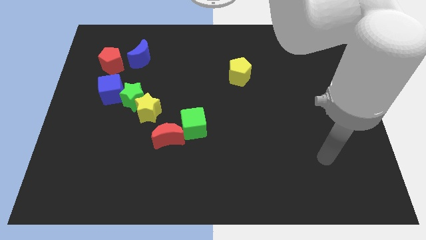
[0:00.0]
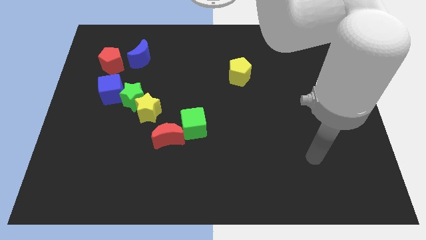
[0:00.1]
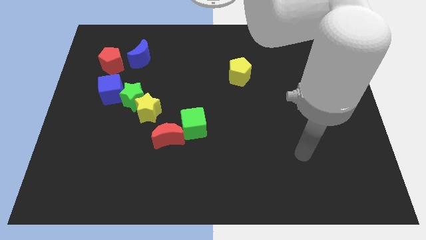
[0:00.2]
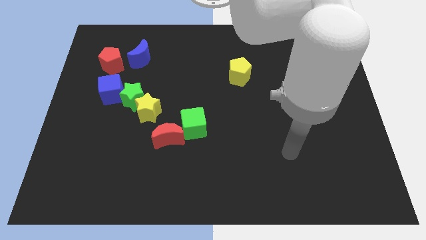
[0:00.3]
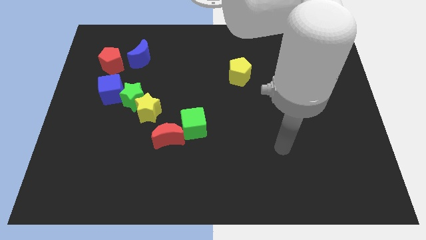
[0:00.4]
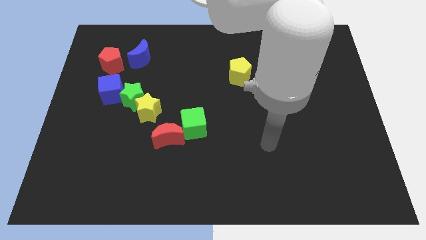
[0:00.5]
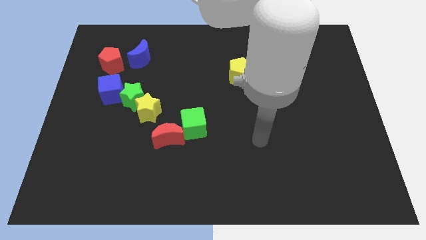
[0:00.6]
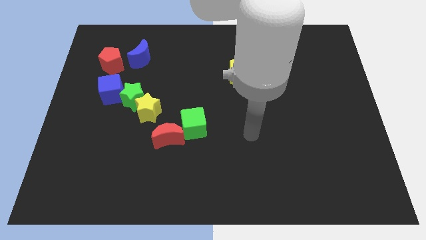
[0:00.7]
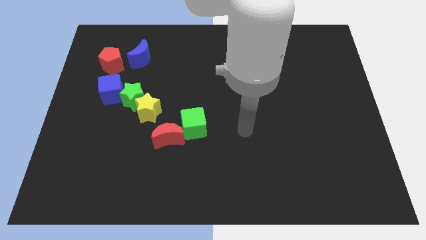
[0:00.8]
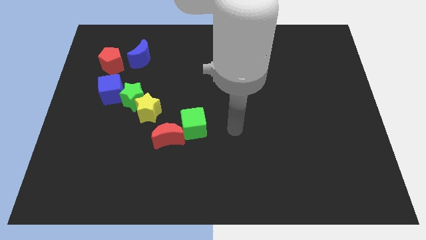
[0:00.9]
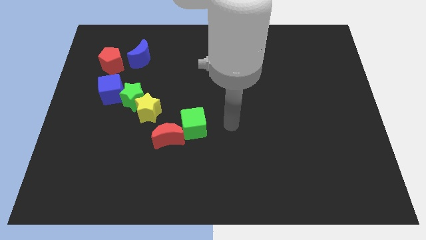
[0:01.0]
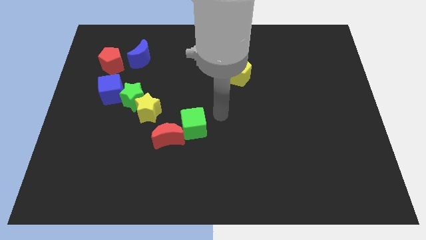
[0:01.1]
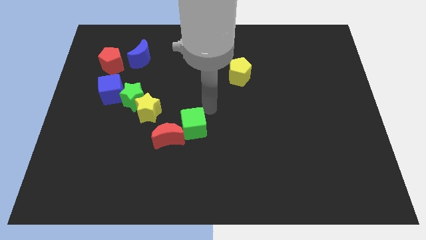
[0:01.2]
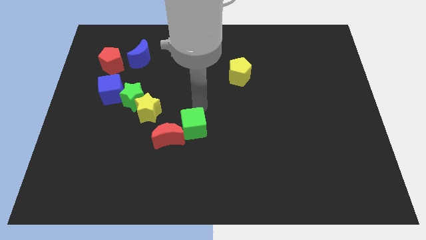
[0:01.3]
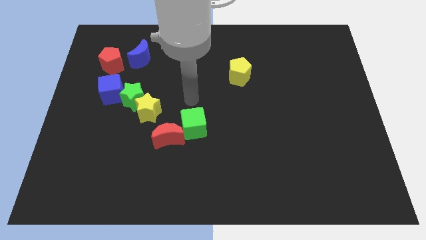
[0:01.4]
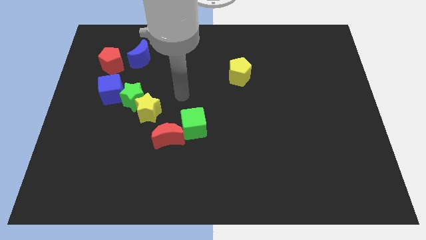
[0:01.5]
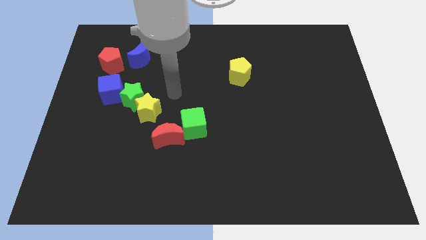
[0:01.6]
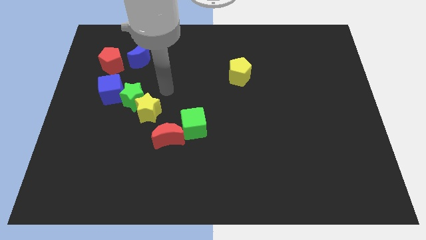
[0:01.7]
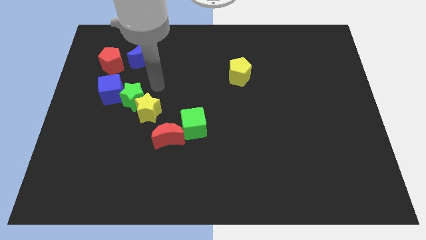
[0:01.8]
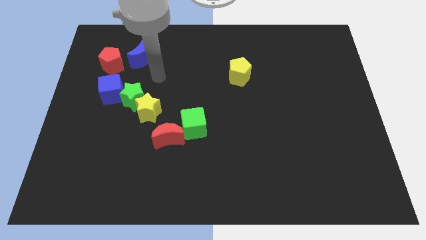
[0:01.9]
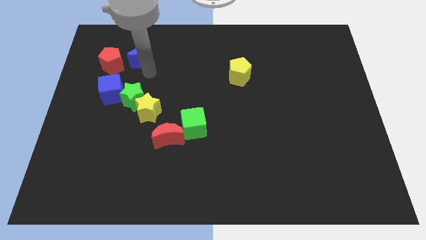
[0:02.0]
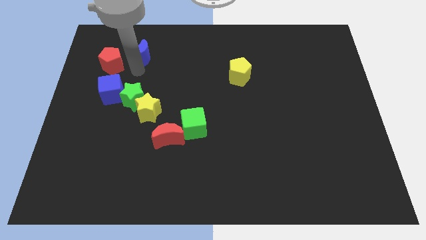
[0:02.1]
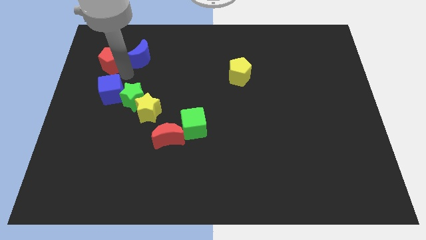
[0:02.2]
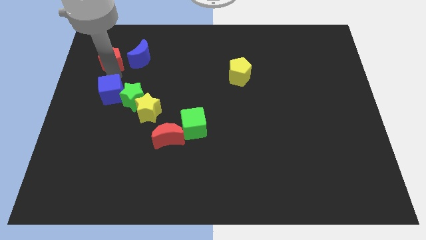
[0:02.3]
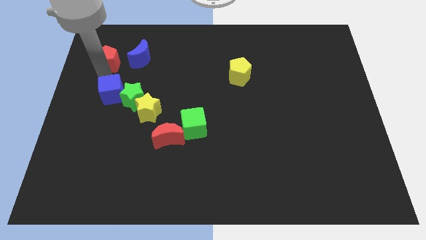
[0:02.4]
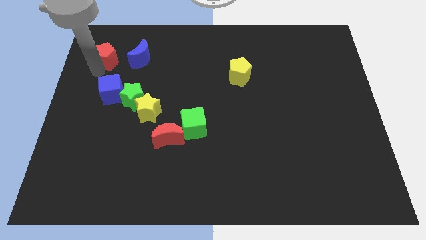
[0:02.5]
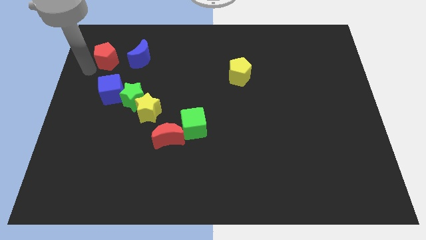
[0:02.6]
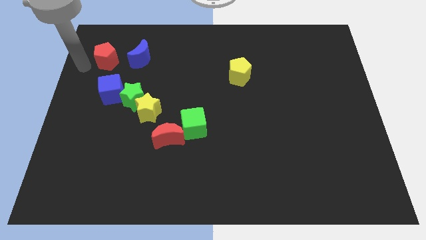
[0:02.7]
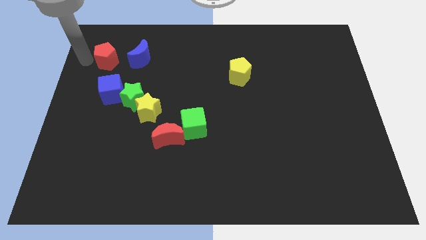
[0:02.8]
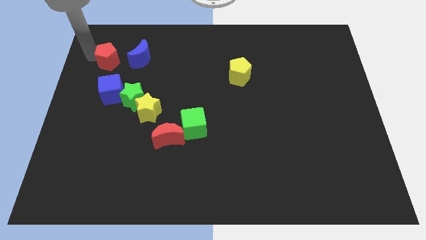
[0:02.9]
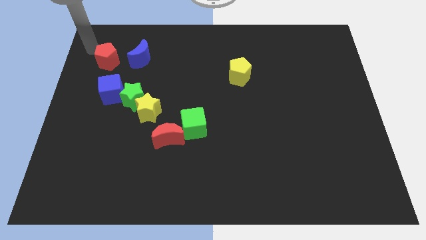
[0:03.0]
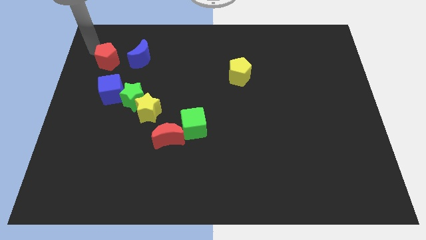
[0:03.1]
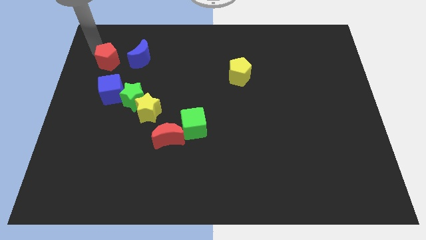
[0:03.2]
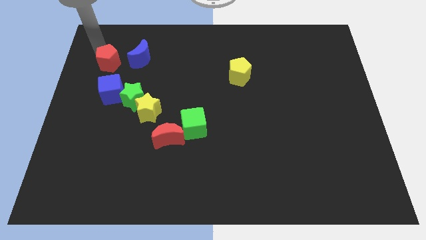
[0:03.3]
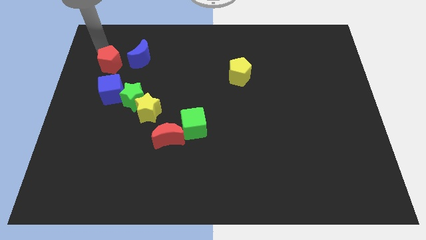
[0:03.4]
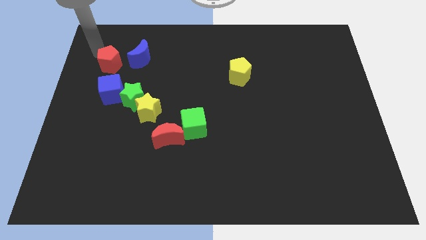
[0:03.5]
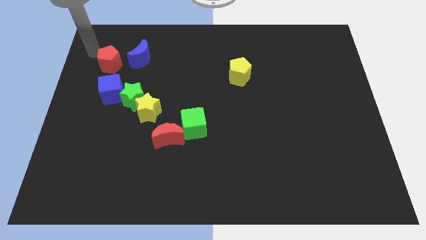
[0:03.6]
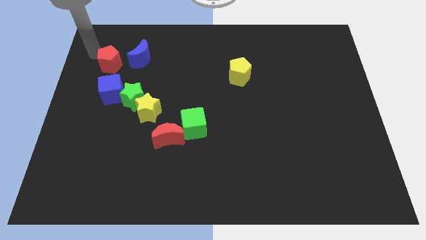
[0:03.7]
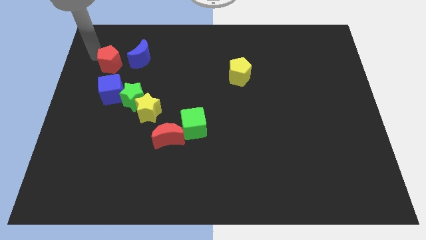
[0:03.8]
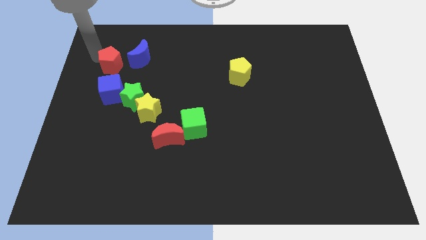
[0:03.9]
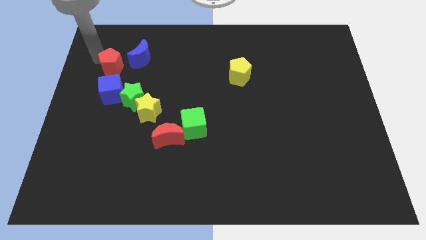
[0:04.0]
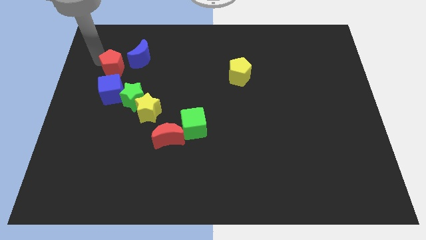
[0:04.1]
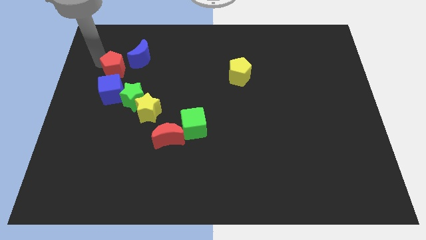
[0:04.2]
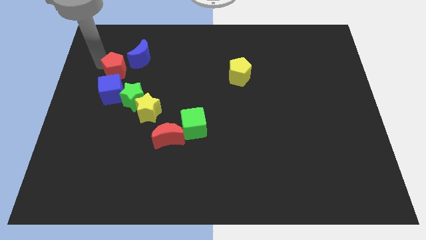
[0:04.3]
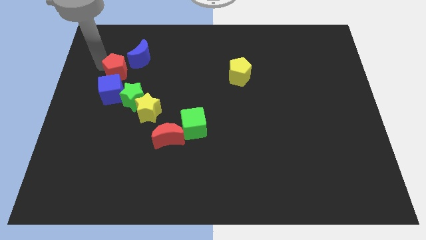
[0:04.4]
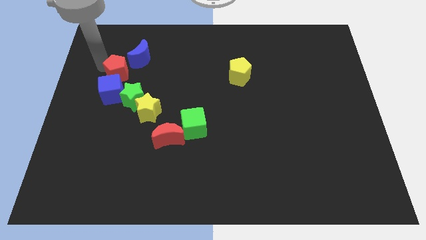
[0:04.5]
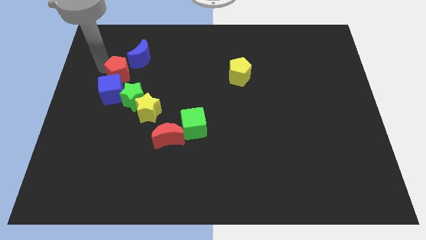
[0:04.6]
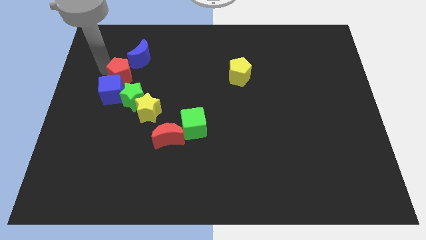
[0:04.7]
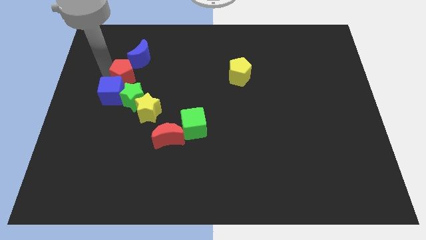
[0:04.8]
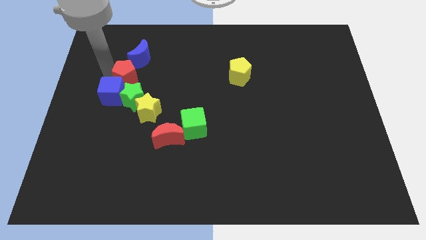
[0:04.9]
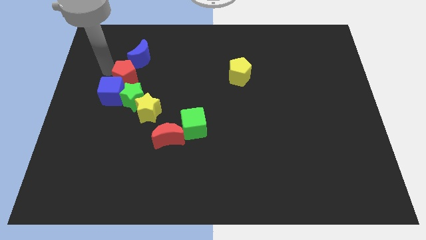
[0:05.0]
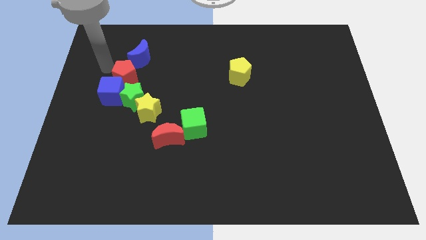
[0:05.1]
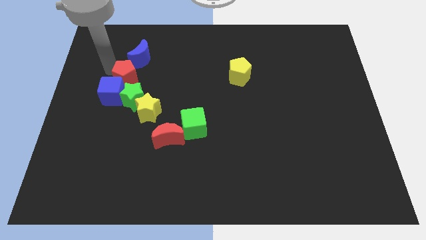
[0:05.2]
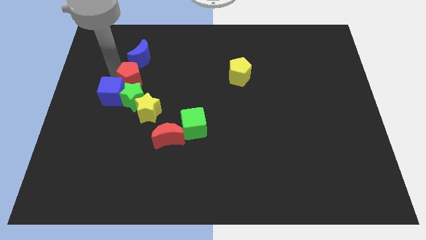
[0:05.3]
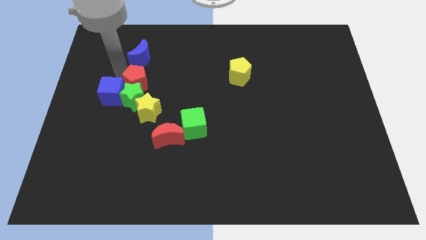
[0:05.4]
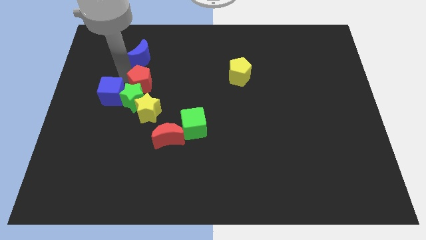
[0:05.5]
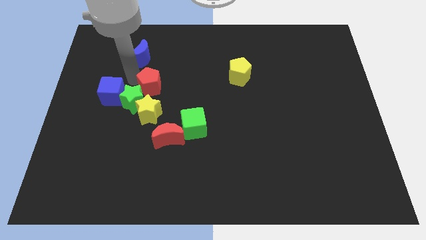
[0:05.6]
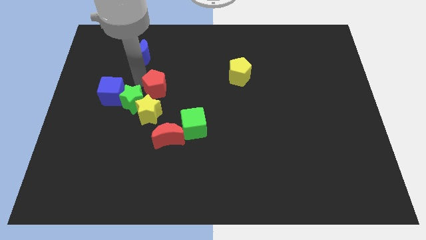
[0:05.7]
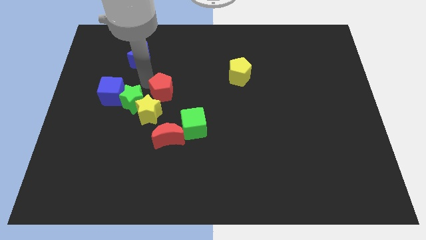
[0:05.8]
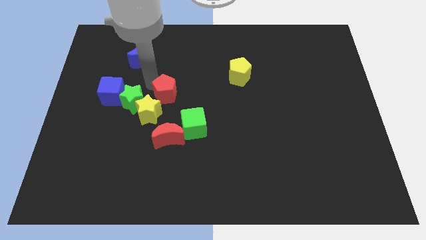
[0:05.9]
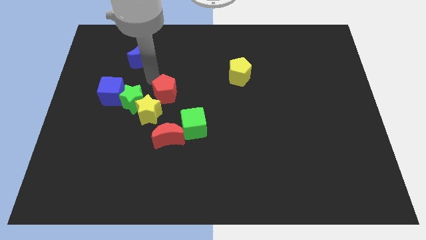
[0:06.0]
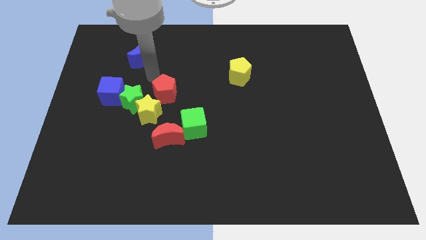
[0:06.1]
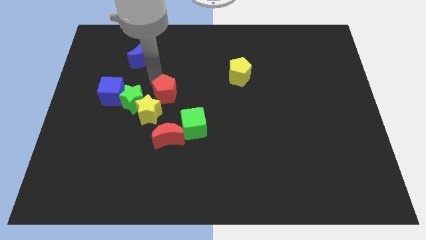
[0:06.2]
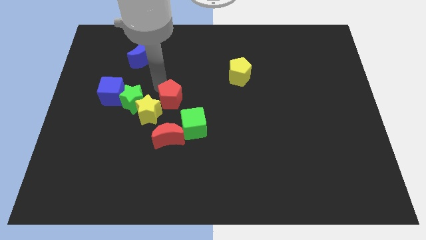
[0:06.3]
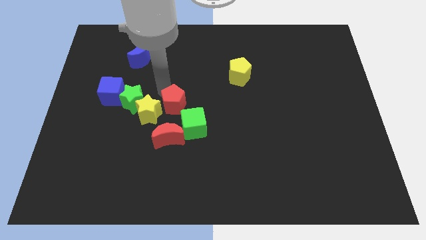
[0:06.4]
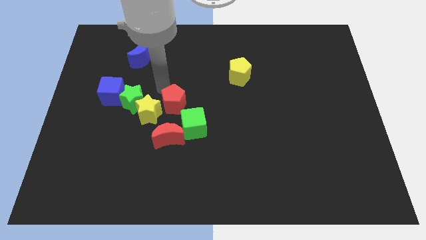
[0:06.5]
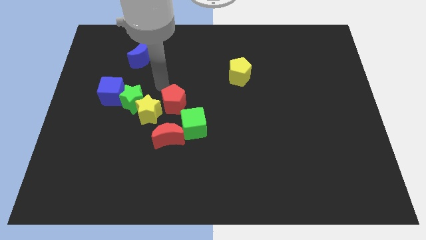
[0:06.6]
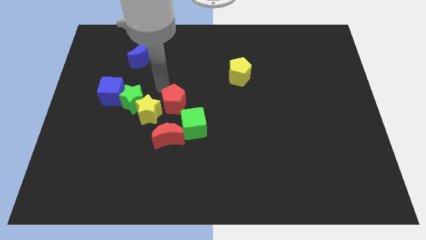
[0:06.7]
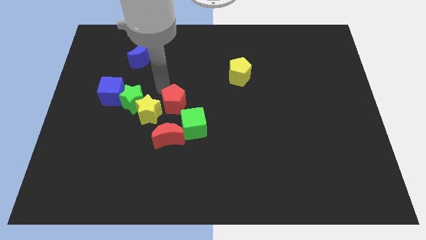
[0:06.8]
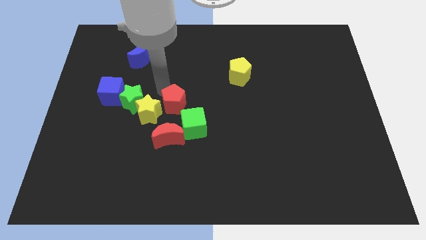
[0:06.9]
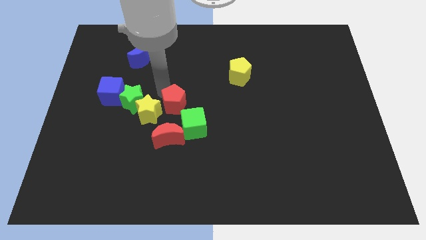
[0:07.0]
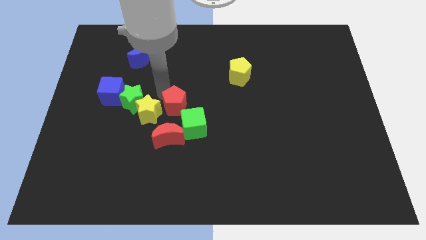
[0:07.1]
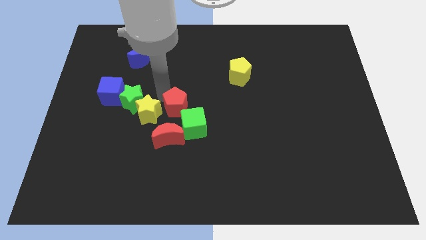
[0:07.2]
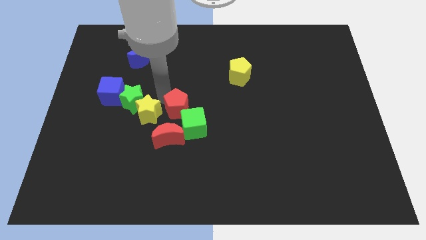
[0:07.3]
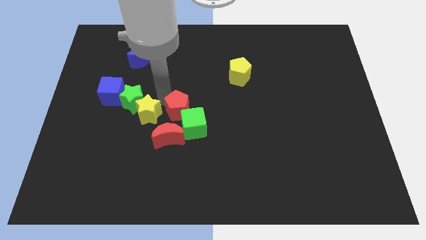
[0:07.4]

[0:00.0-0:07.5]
push the red pentagon close to the green cube

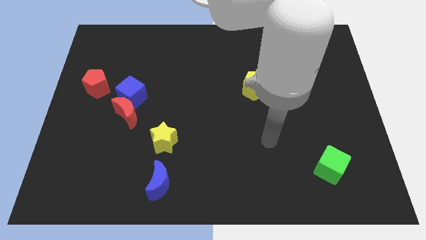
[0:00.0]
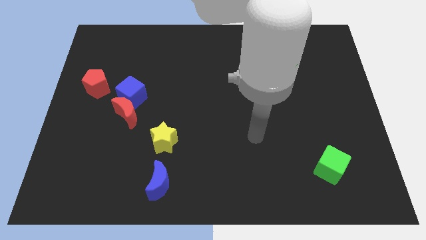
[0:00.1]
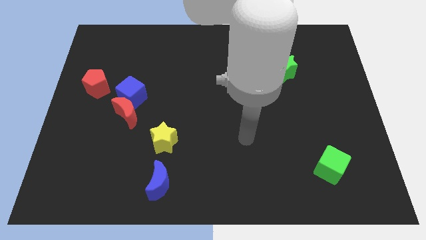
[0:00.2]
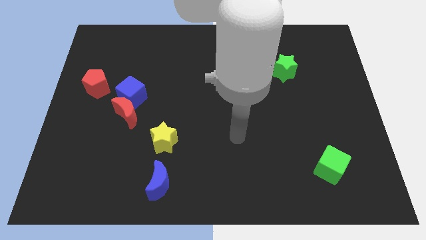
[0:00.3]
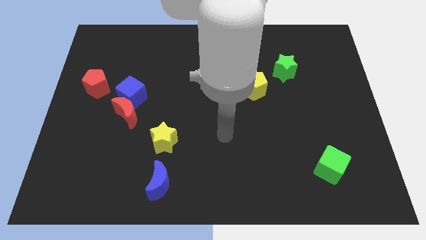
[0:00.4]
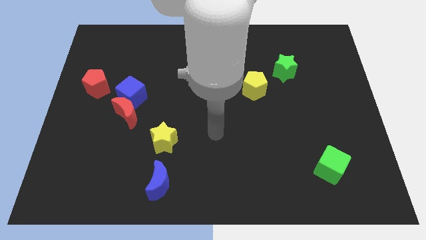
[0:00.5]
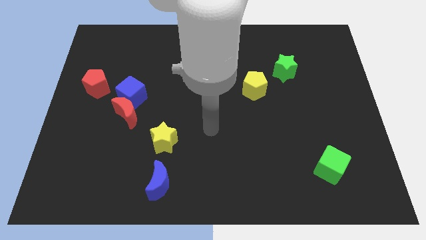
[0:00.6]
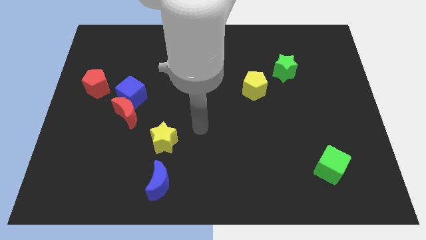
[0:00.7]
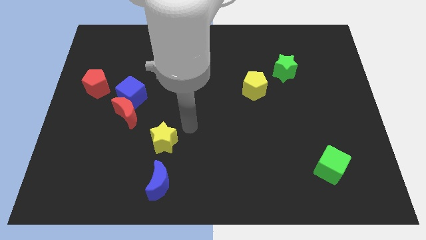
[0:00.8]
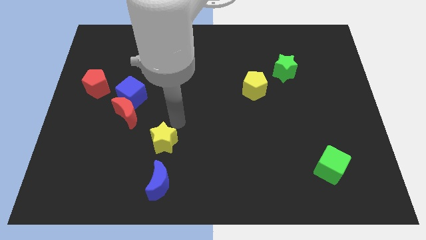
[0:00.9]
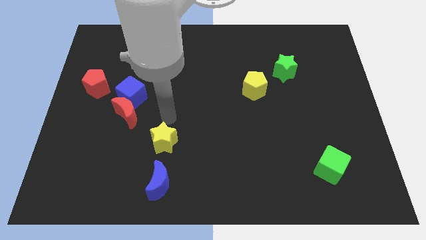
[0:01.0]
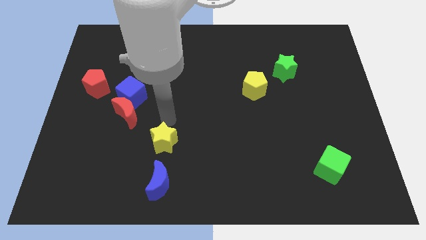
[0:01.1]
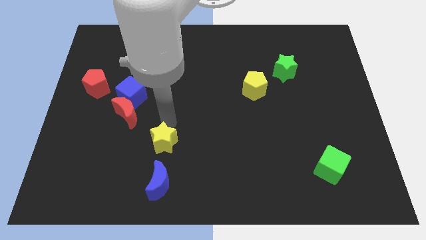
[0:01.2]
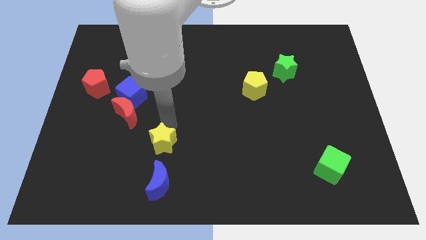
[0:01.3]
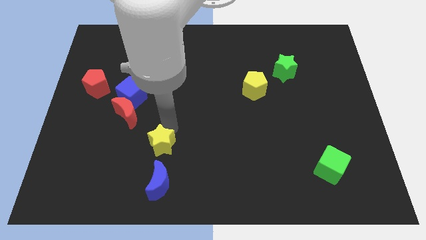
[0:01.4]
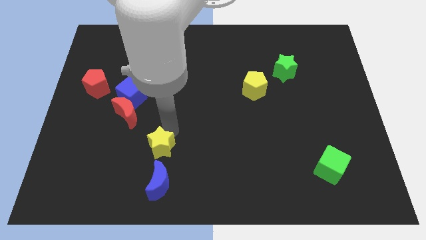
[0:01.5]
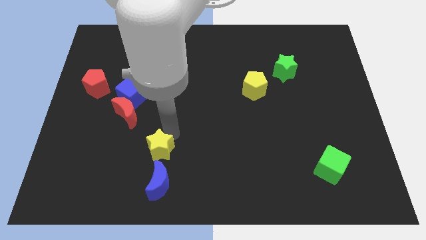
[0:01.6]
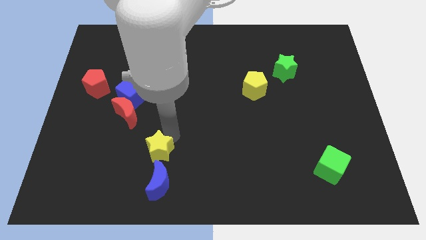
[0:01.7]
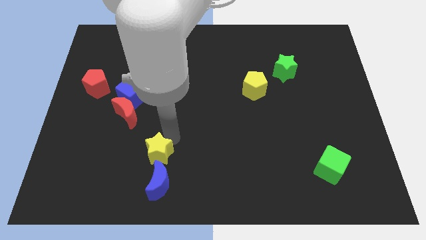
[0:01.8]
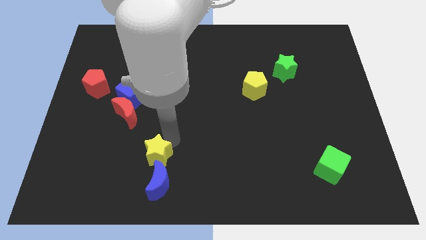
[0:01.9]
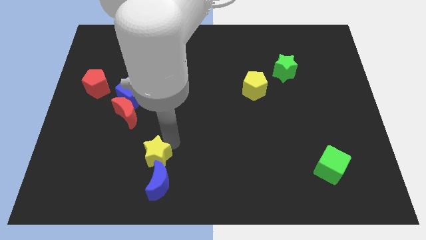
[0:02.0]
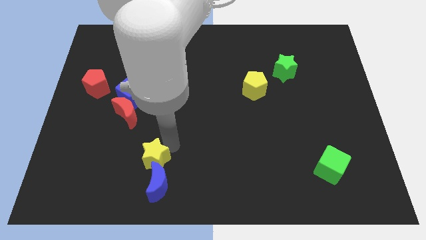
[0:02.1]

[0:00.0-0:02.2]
push the yellow star next to the blue moon
